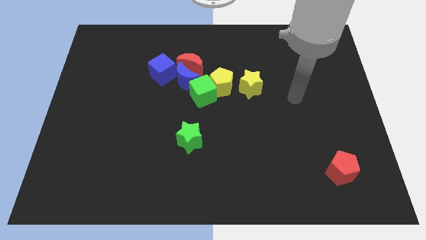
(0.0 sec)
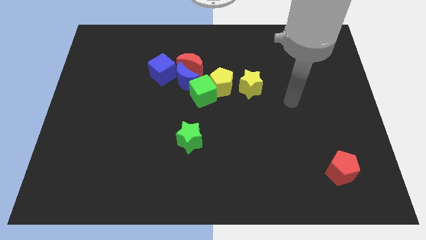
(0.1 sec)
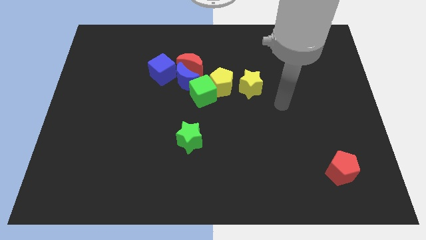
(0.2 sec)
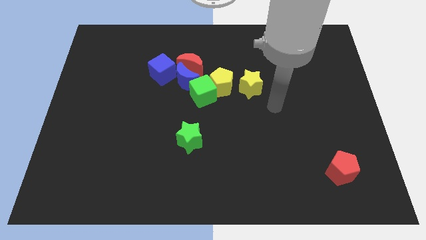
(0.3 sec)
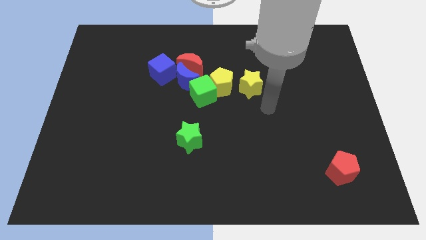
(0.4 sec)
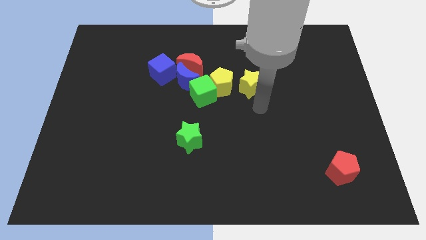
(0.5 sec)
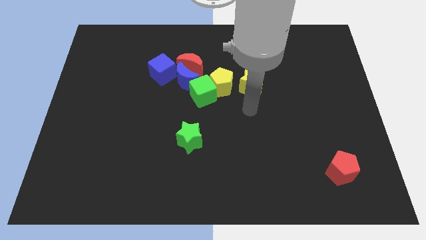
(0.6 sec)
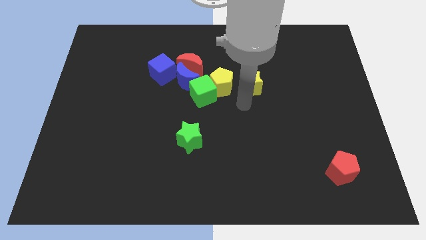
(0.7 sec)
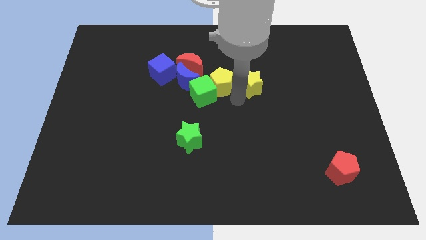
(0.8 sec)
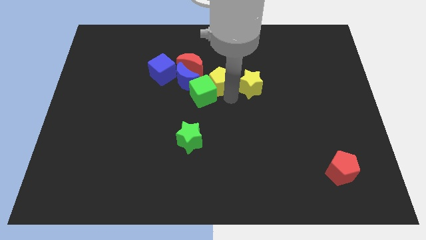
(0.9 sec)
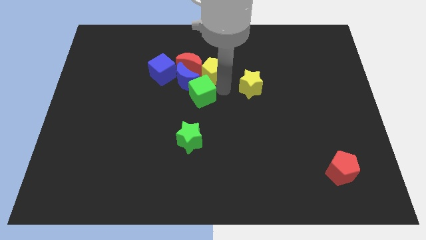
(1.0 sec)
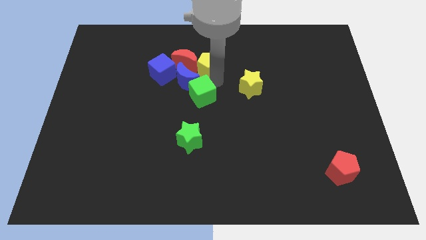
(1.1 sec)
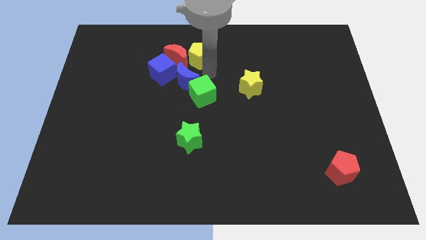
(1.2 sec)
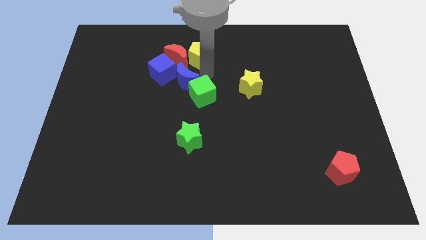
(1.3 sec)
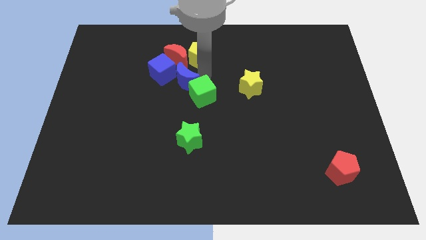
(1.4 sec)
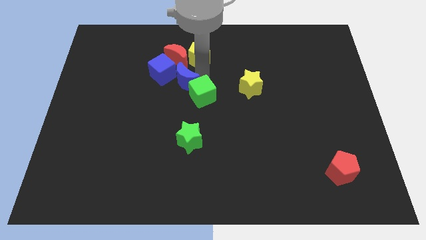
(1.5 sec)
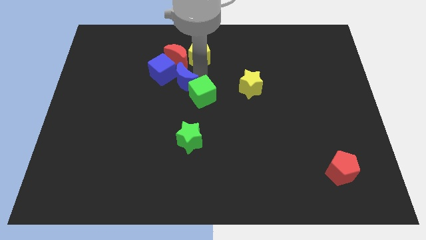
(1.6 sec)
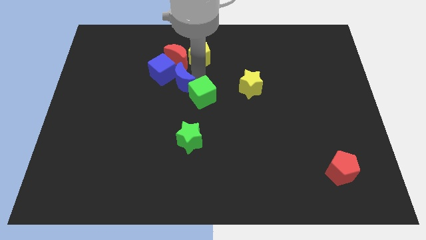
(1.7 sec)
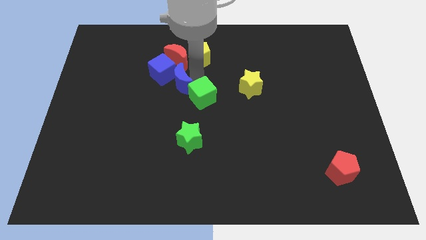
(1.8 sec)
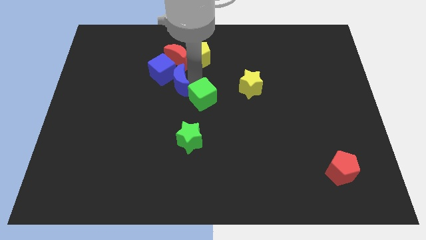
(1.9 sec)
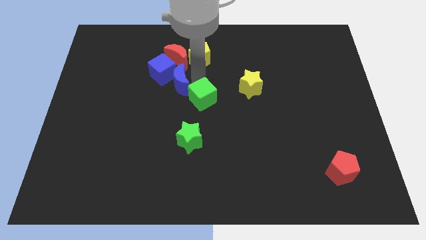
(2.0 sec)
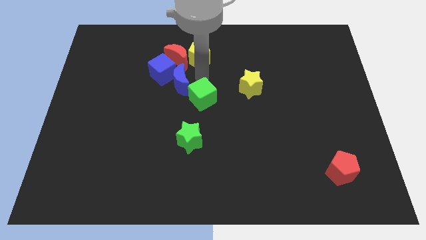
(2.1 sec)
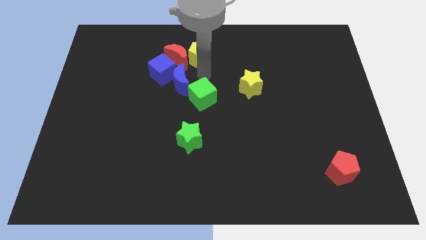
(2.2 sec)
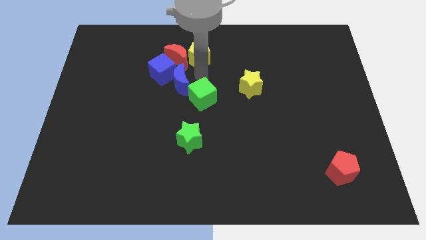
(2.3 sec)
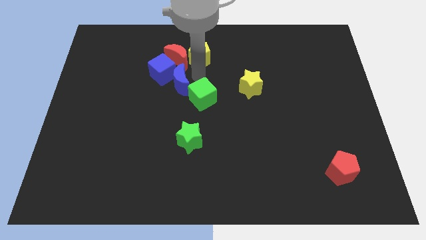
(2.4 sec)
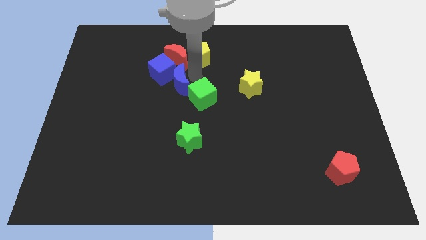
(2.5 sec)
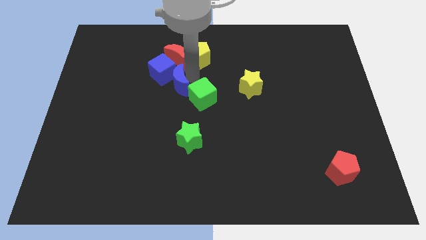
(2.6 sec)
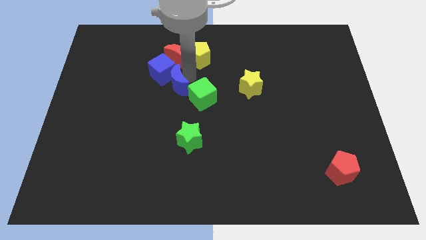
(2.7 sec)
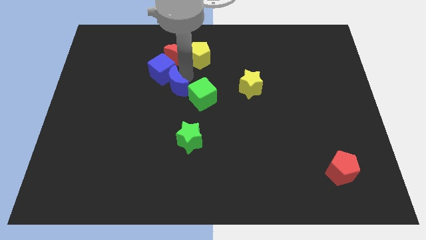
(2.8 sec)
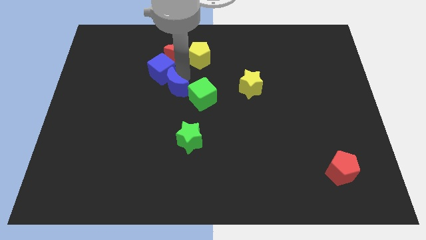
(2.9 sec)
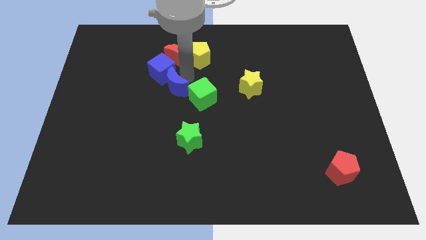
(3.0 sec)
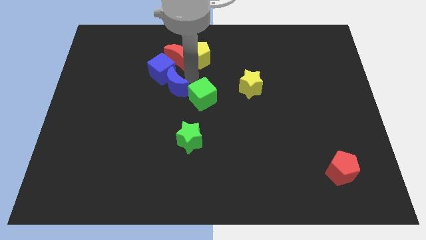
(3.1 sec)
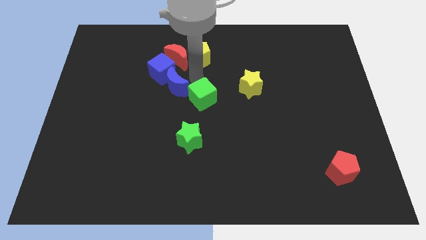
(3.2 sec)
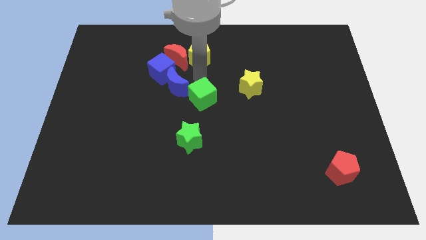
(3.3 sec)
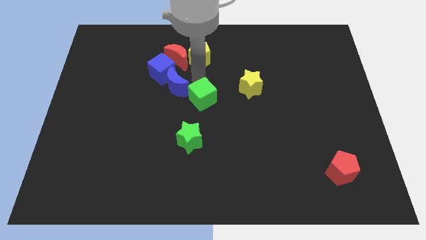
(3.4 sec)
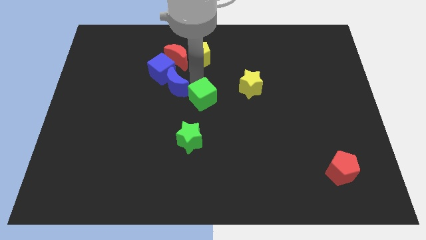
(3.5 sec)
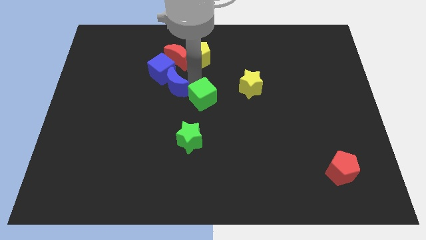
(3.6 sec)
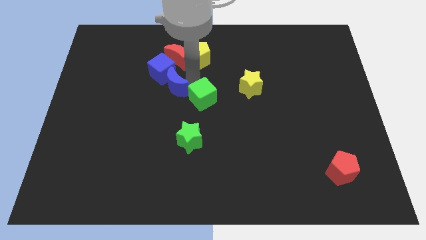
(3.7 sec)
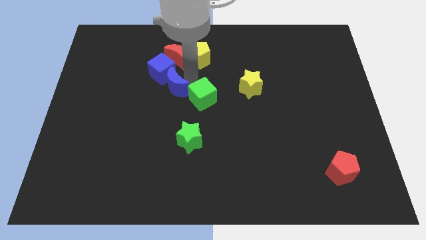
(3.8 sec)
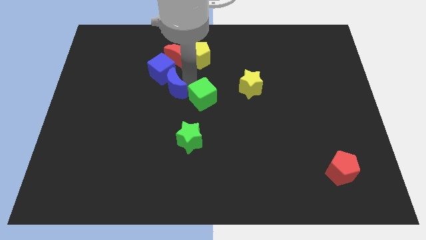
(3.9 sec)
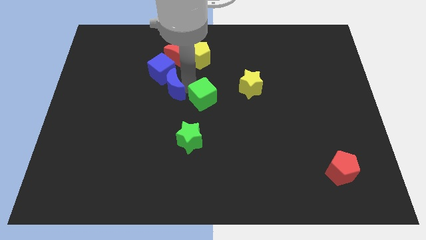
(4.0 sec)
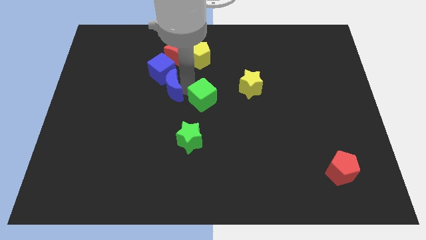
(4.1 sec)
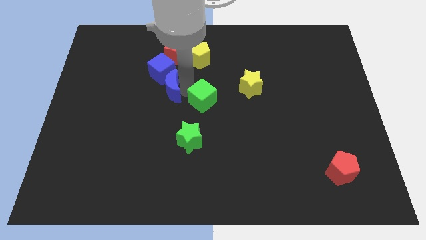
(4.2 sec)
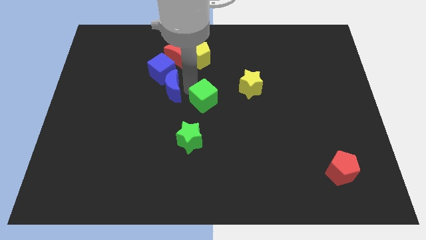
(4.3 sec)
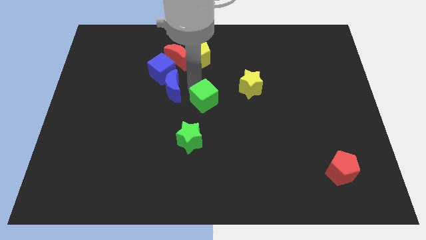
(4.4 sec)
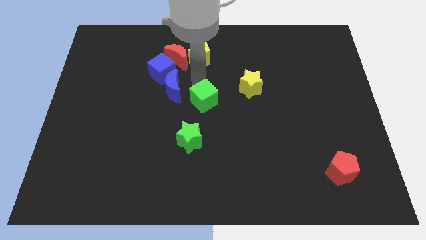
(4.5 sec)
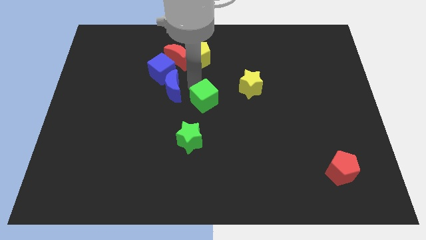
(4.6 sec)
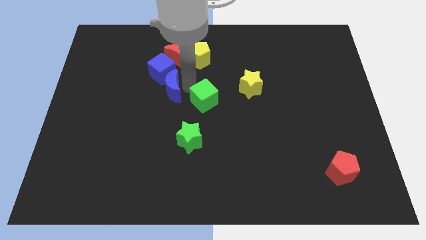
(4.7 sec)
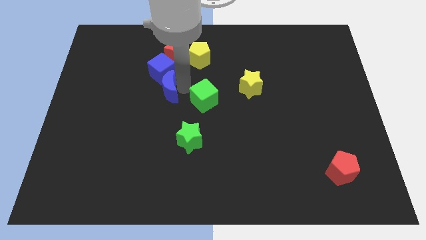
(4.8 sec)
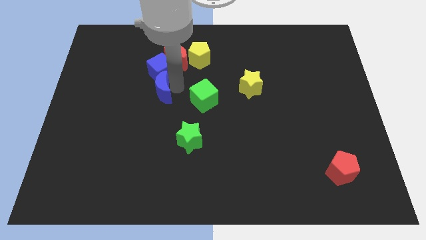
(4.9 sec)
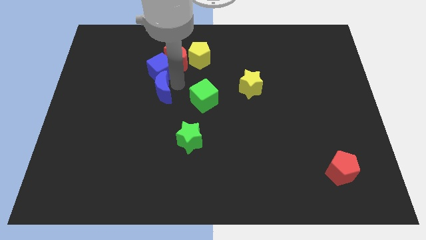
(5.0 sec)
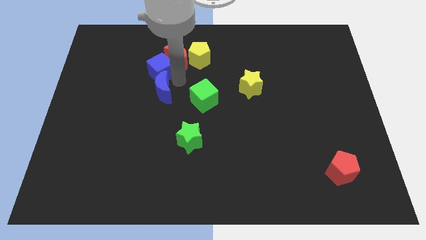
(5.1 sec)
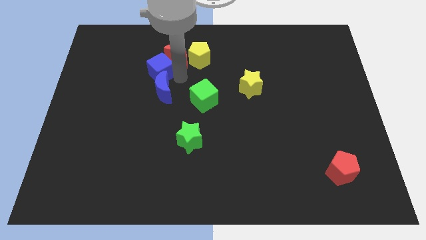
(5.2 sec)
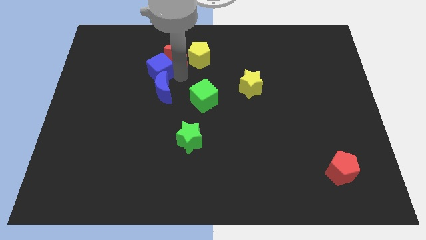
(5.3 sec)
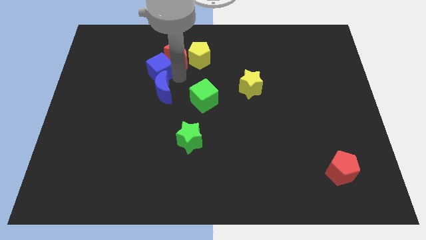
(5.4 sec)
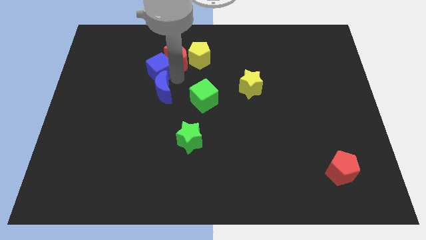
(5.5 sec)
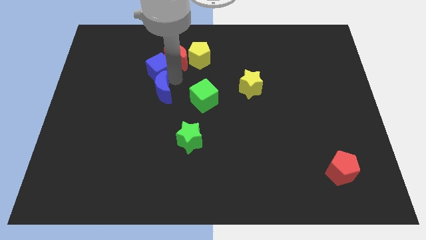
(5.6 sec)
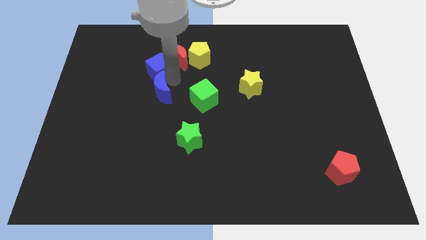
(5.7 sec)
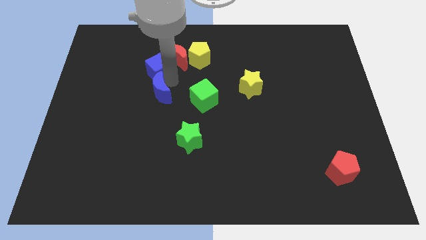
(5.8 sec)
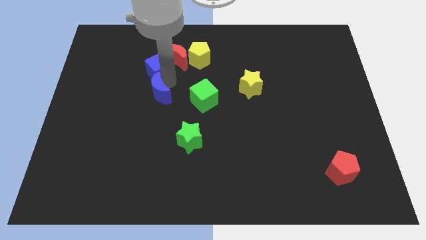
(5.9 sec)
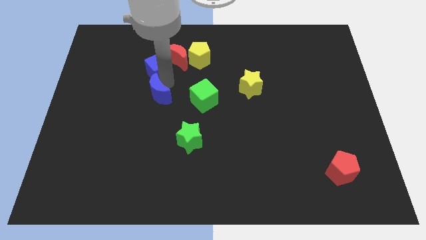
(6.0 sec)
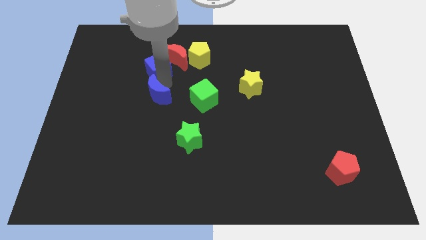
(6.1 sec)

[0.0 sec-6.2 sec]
pull the blue moon apart from the clump

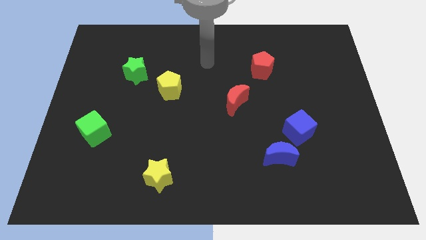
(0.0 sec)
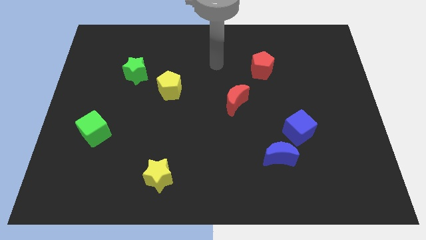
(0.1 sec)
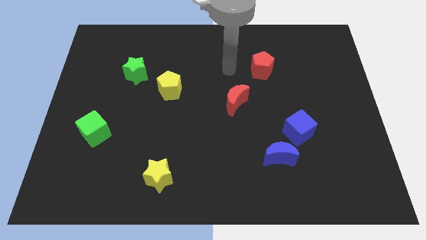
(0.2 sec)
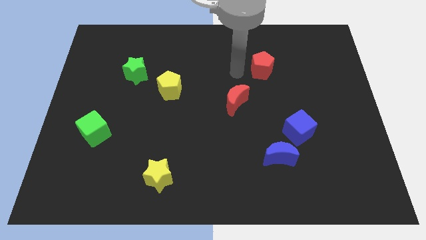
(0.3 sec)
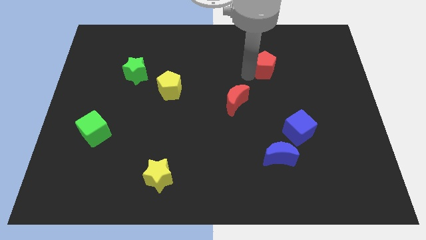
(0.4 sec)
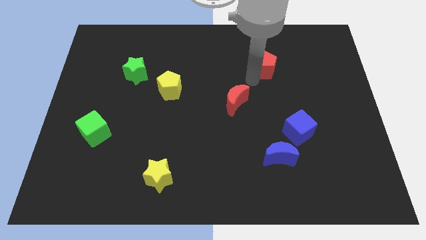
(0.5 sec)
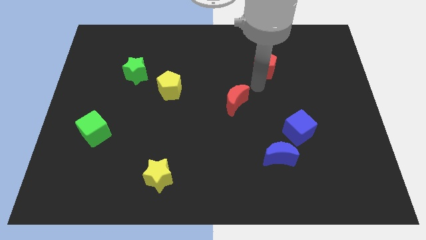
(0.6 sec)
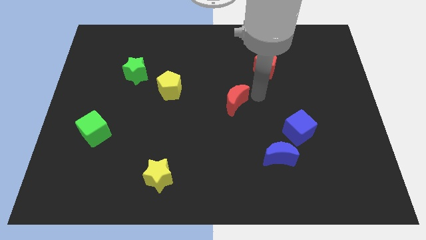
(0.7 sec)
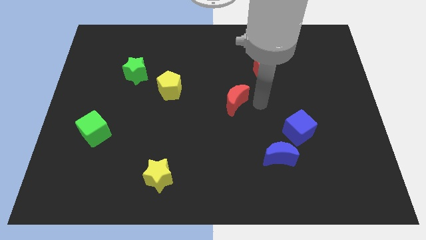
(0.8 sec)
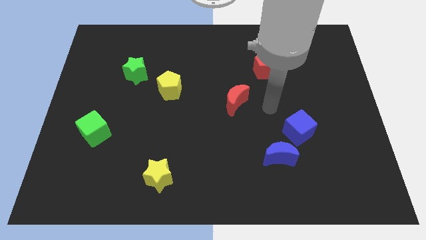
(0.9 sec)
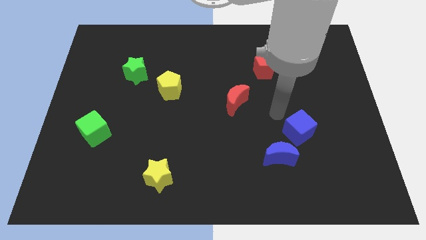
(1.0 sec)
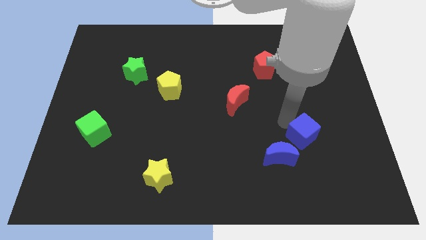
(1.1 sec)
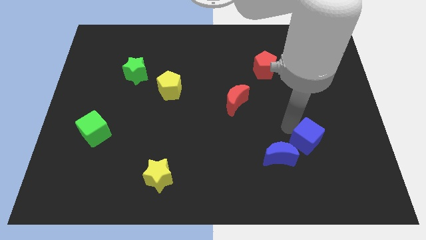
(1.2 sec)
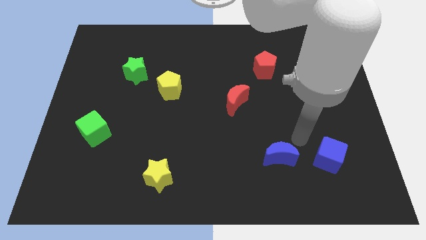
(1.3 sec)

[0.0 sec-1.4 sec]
move the blue moon away from the blue cube

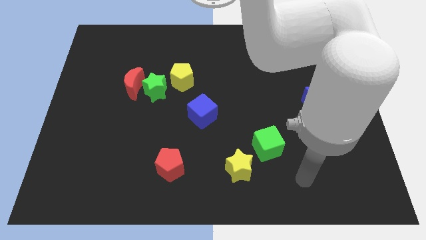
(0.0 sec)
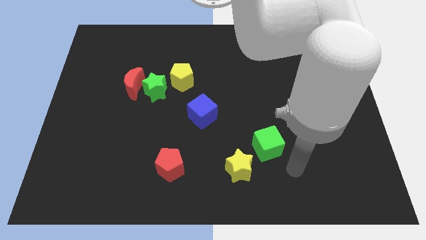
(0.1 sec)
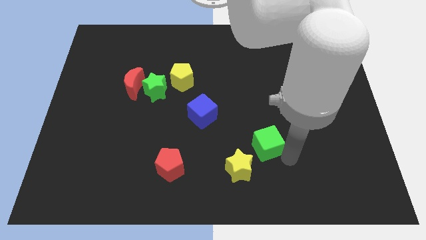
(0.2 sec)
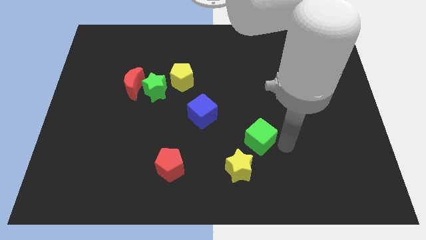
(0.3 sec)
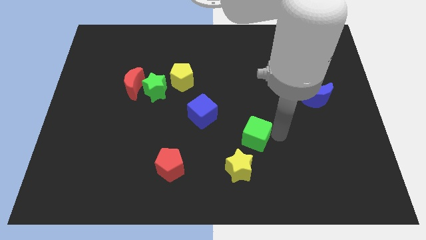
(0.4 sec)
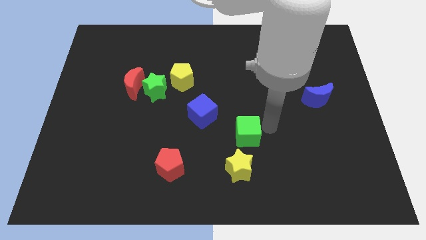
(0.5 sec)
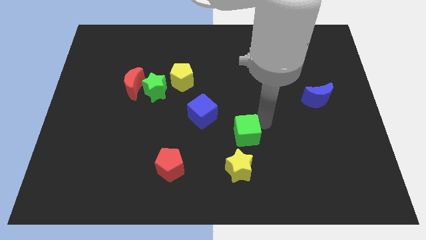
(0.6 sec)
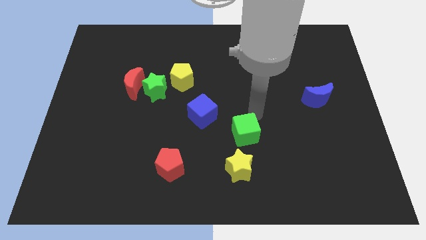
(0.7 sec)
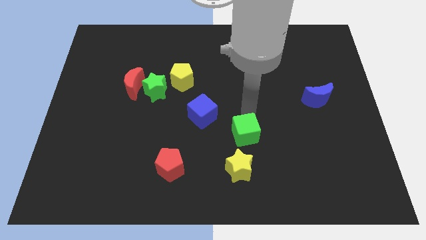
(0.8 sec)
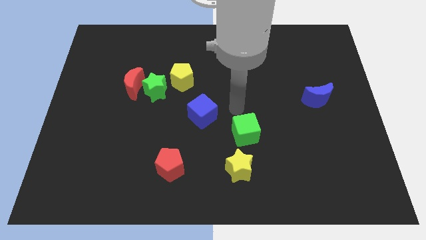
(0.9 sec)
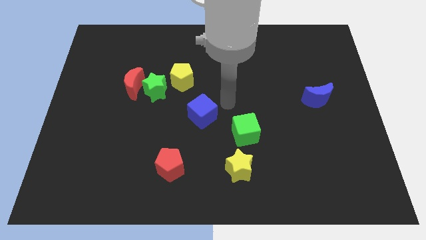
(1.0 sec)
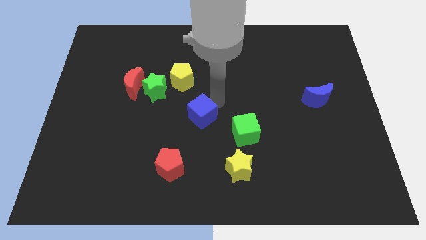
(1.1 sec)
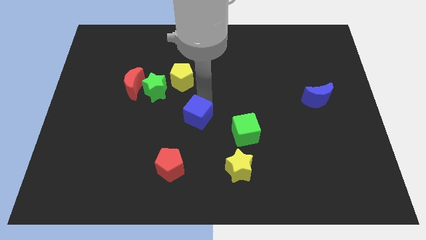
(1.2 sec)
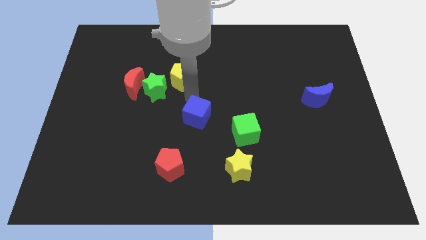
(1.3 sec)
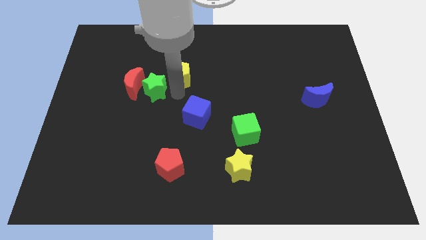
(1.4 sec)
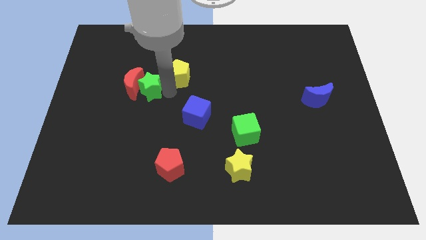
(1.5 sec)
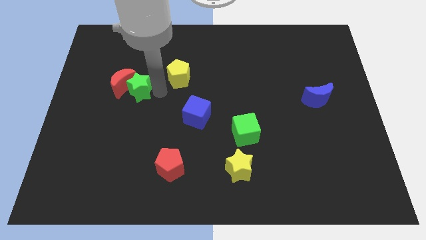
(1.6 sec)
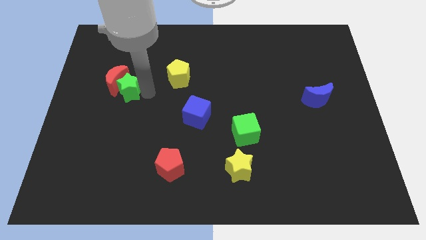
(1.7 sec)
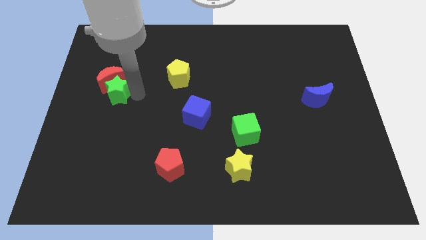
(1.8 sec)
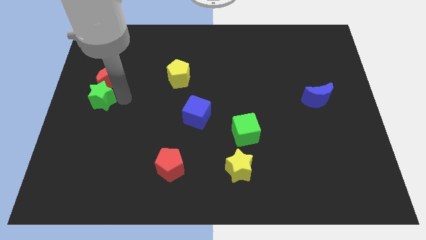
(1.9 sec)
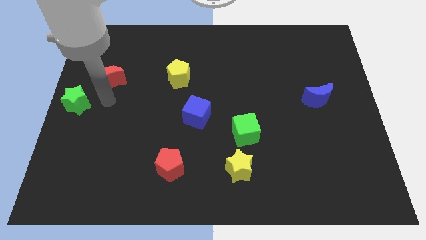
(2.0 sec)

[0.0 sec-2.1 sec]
move the red moon away from the green star
